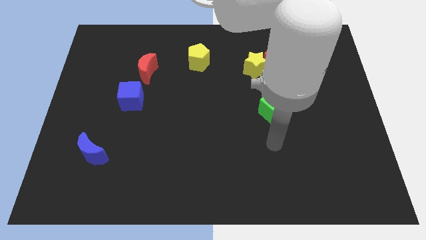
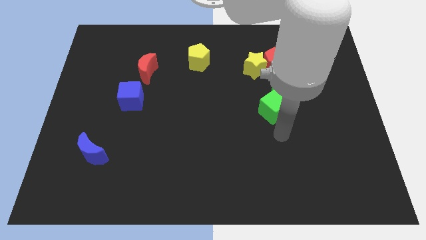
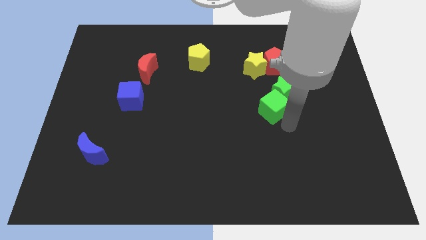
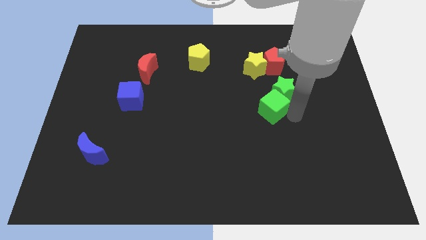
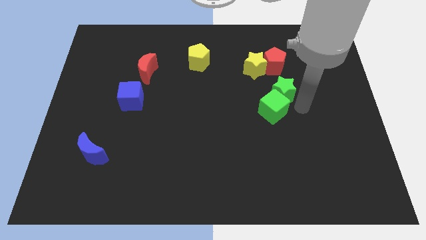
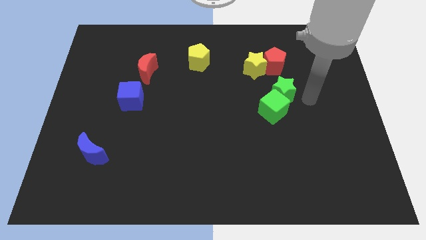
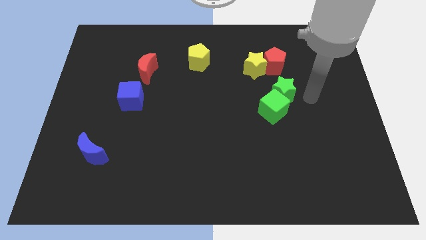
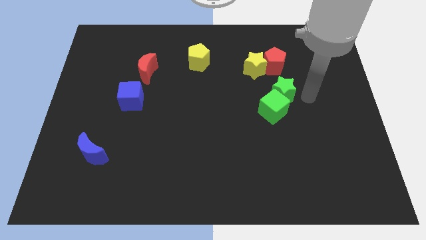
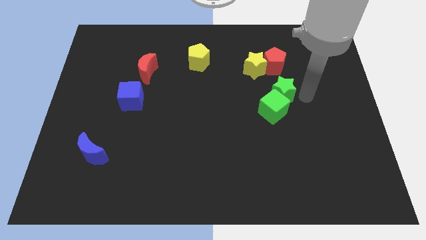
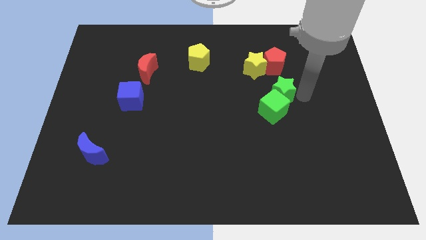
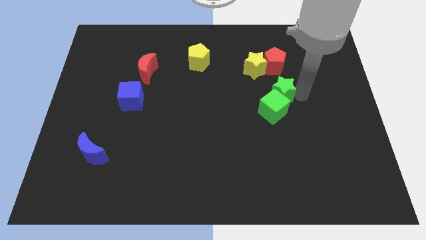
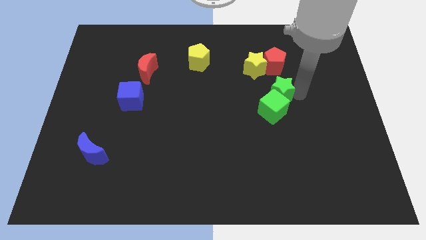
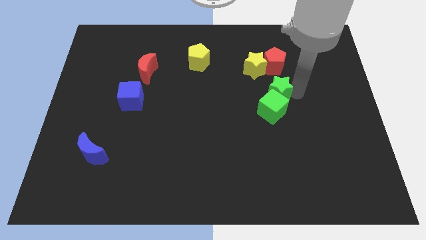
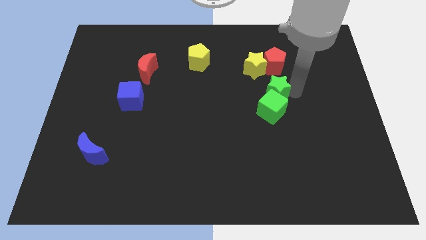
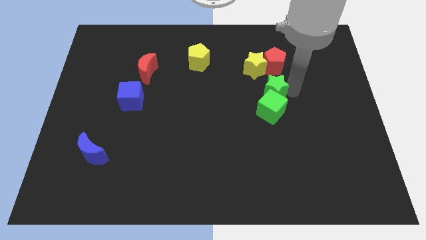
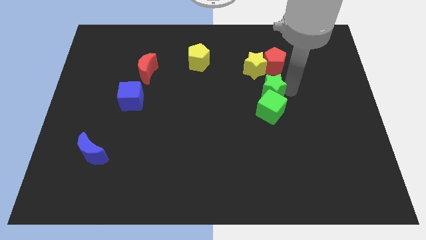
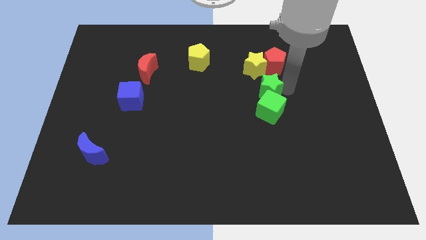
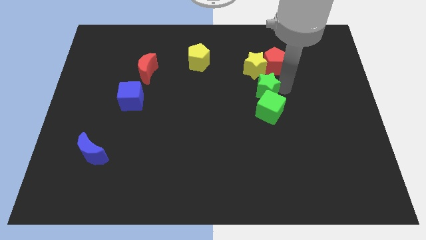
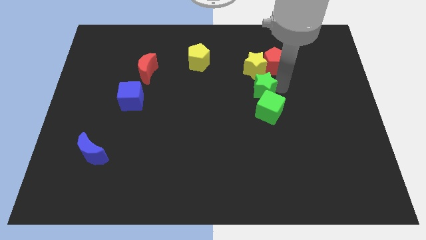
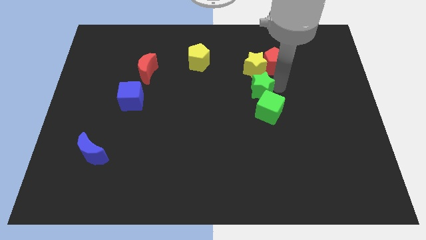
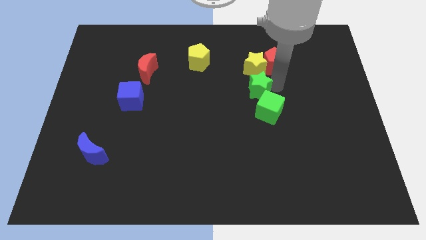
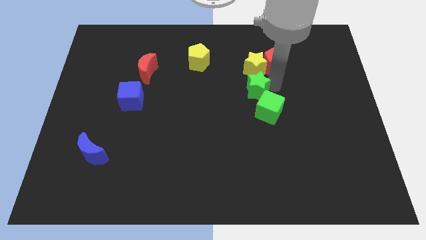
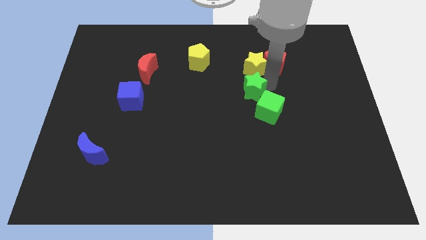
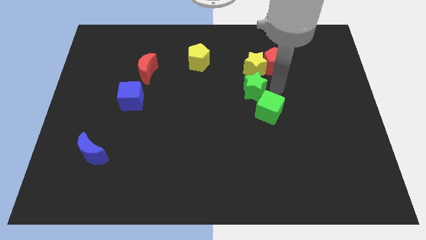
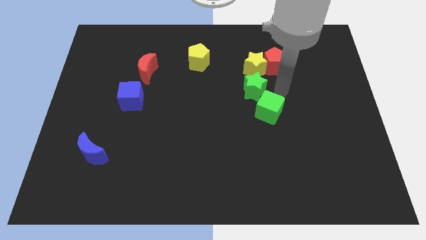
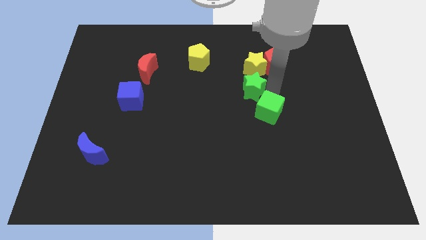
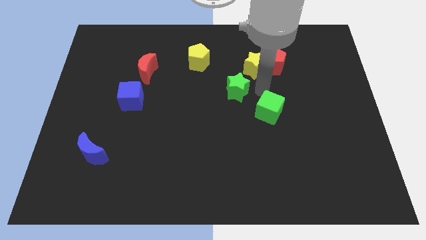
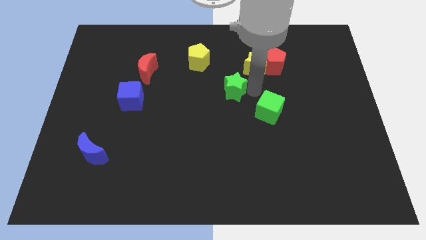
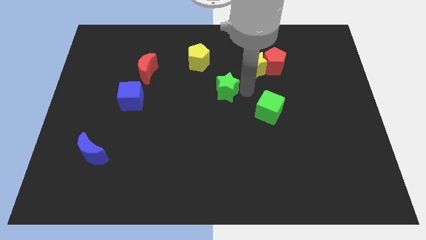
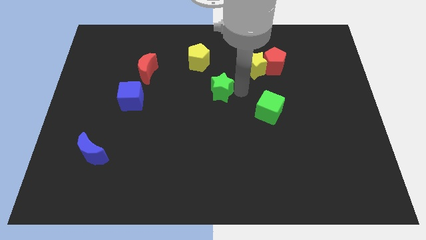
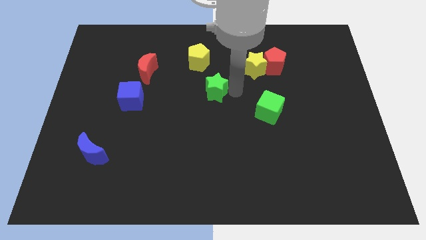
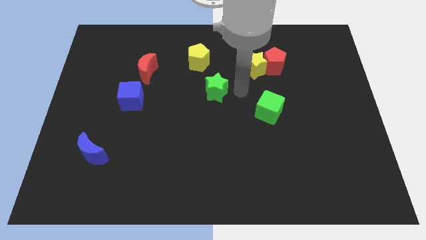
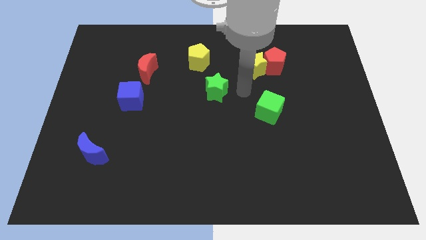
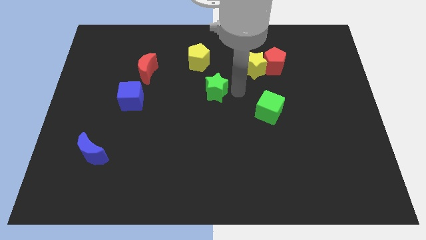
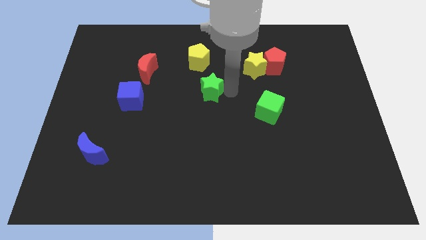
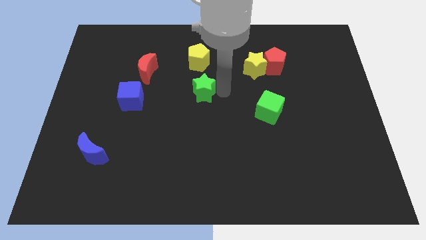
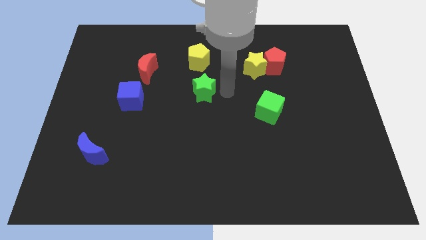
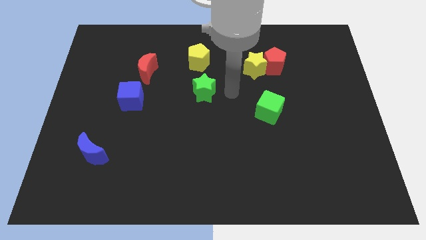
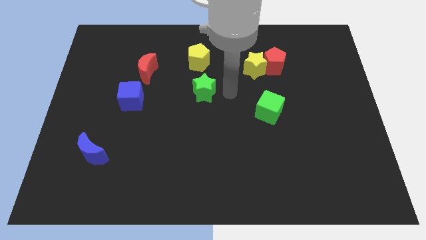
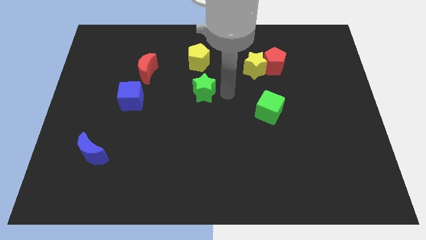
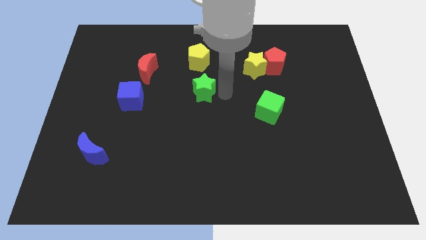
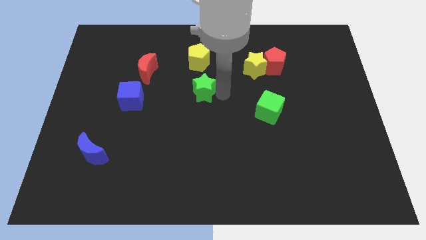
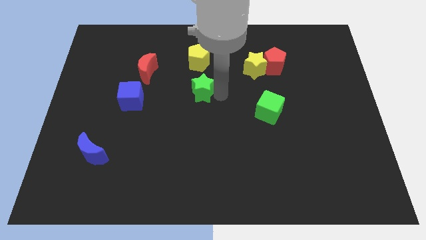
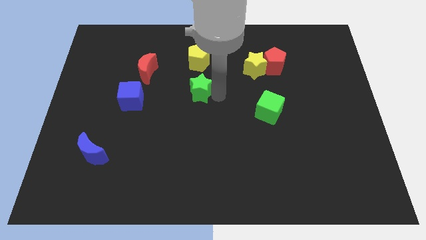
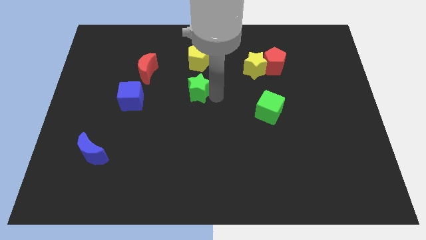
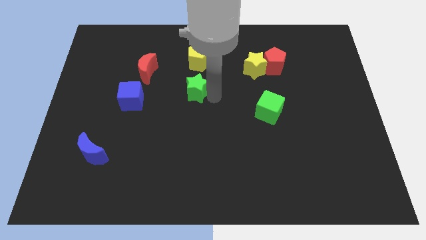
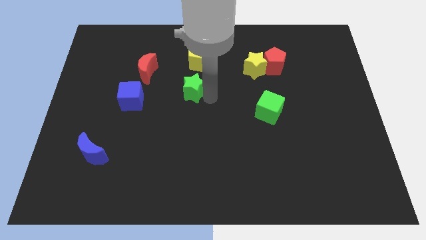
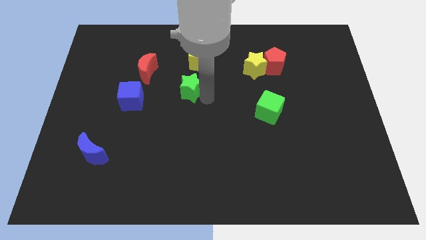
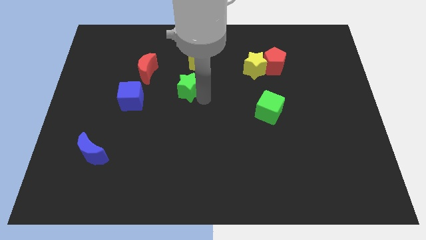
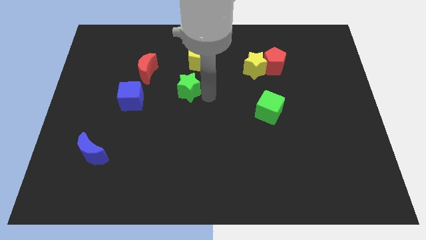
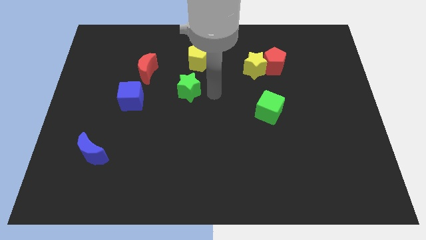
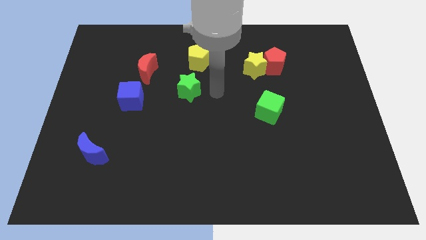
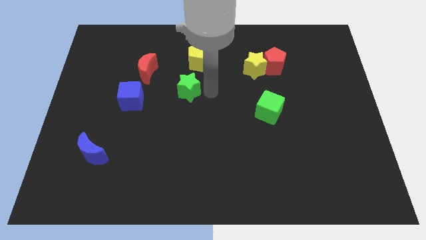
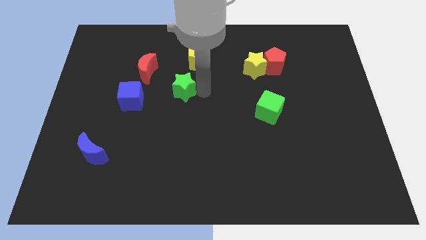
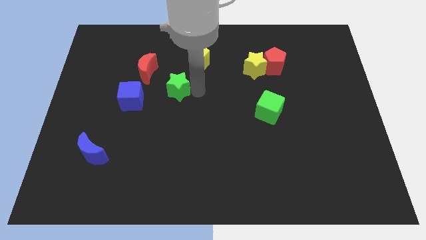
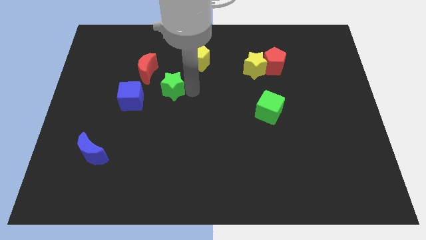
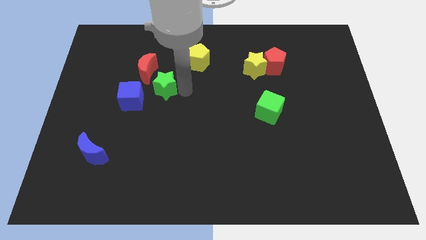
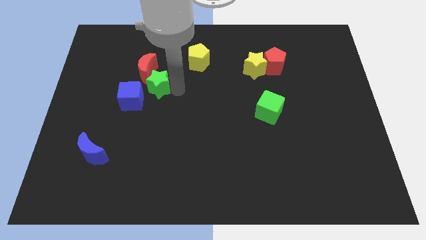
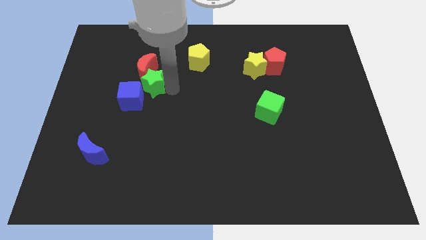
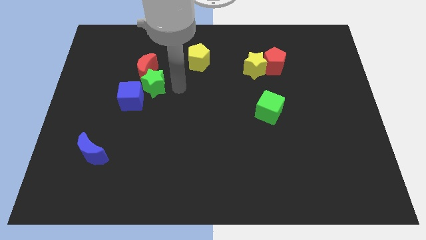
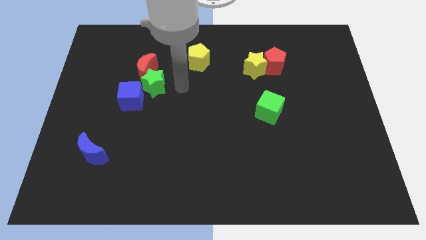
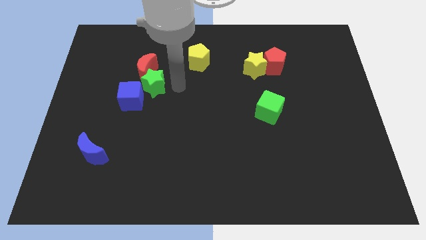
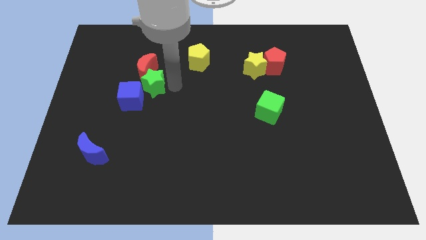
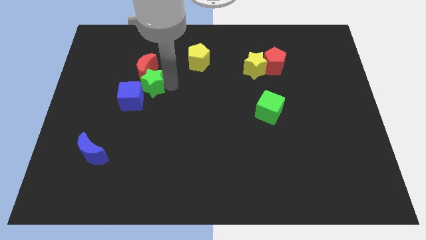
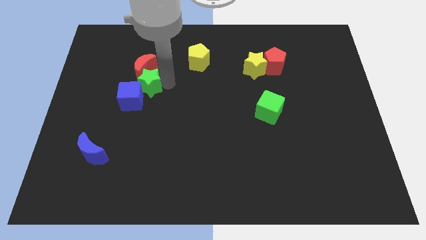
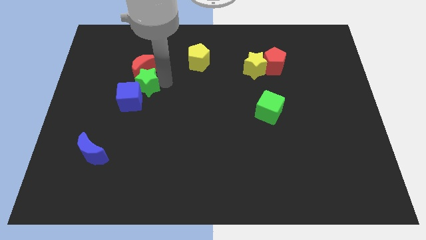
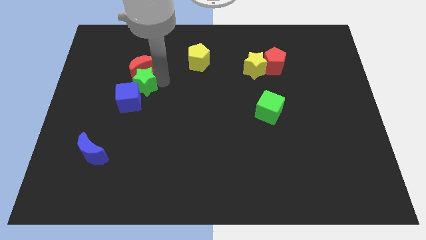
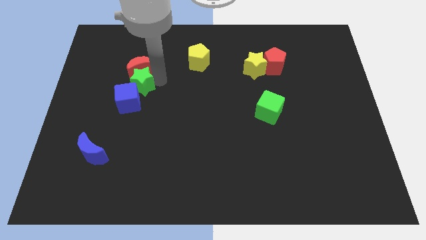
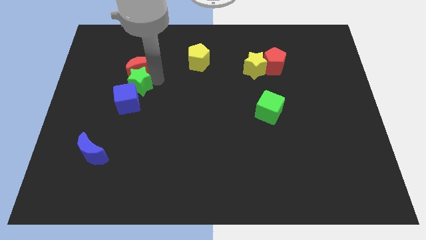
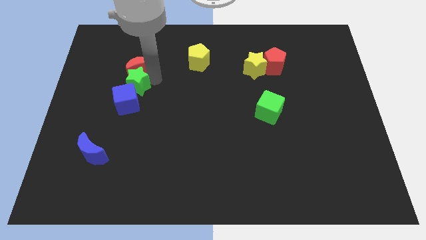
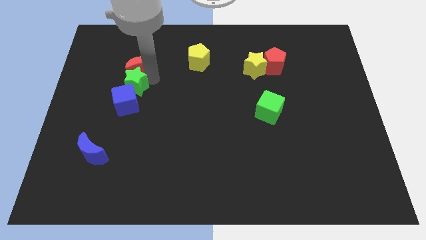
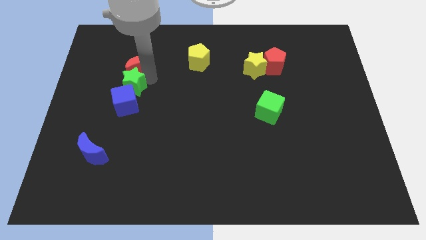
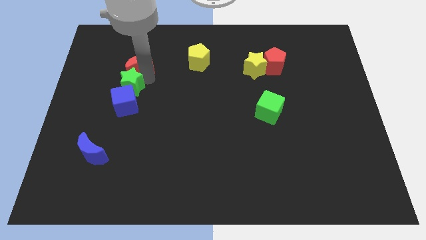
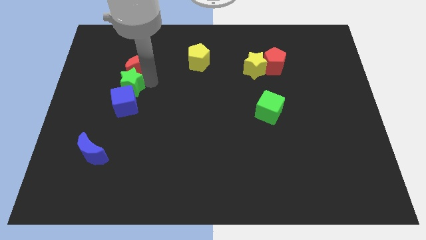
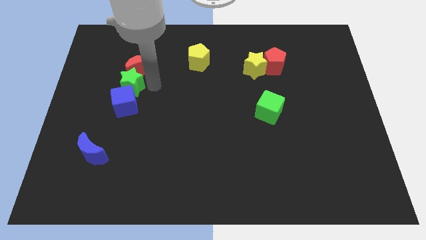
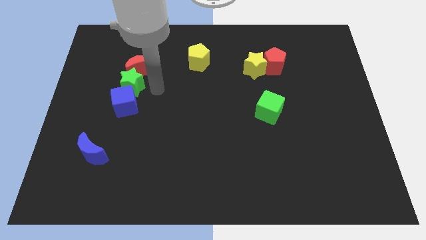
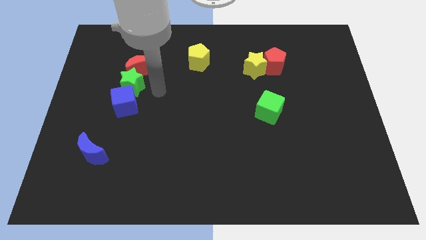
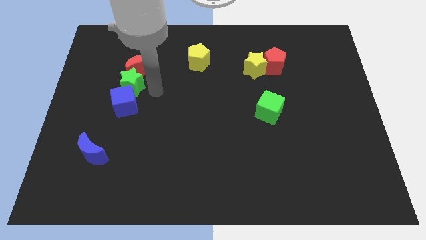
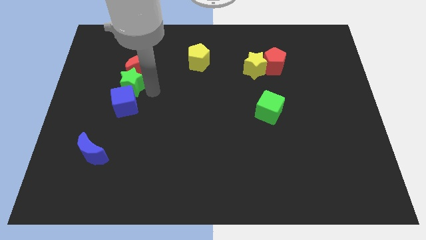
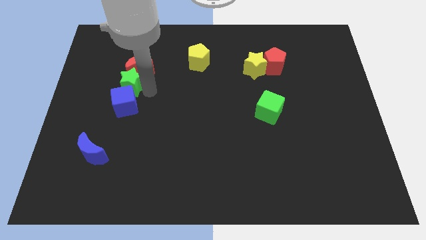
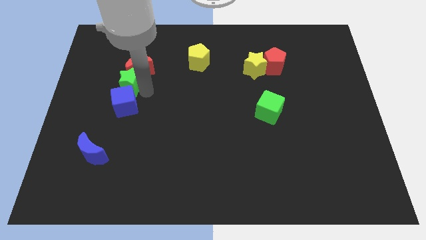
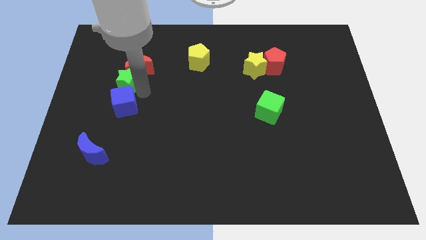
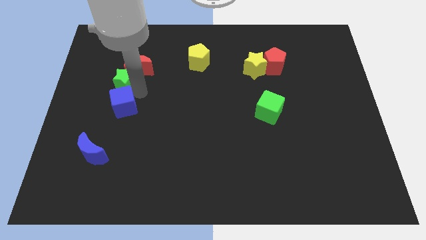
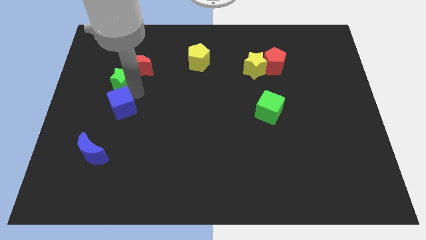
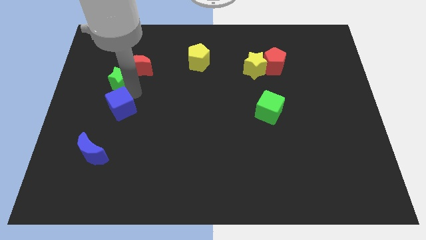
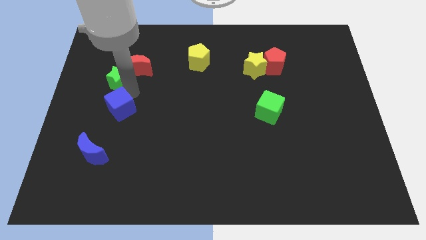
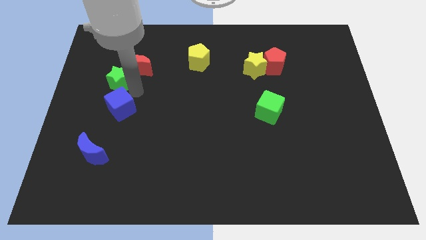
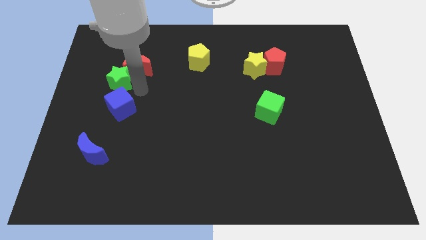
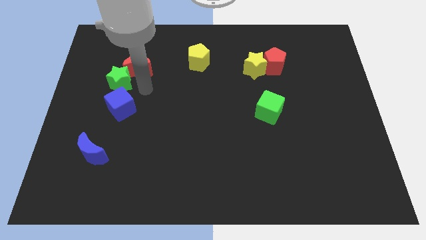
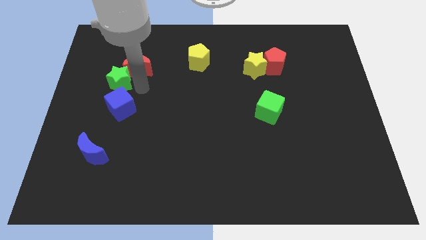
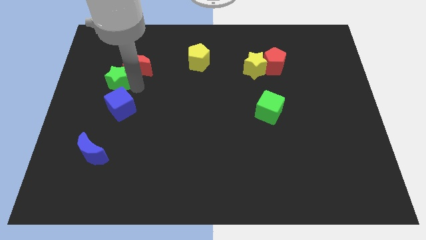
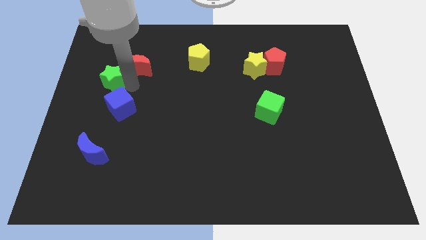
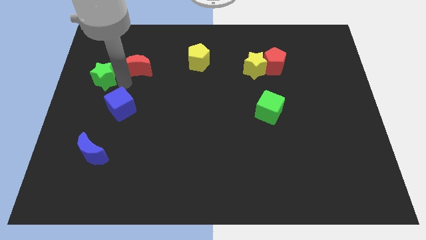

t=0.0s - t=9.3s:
put the green star to the center left
